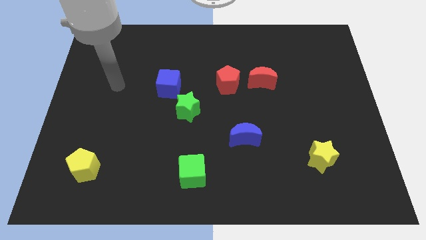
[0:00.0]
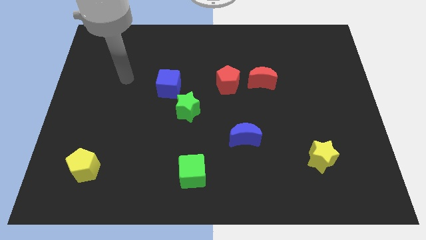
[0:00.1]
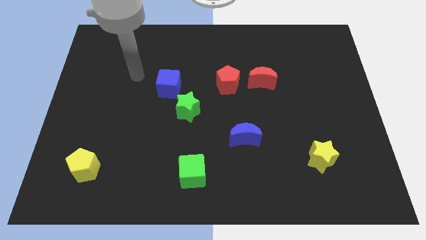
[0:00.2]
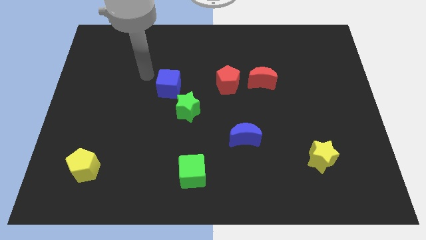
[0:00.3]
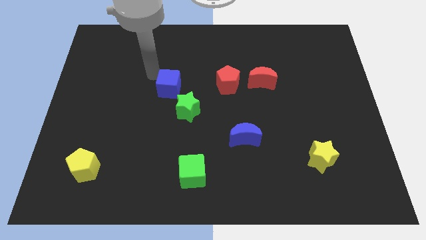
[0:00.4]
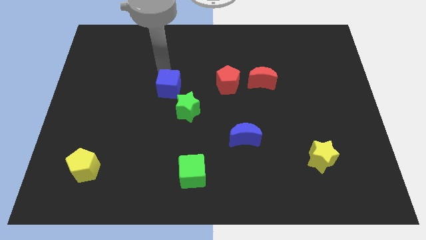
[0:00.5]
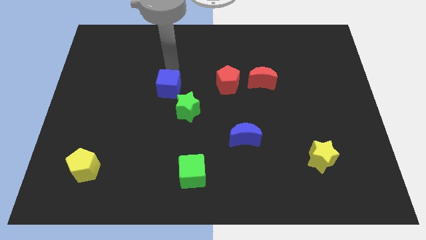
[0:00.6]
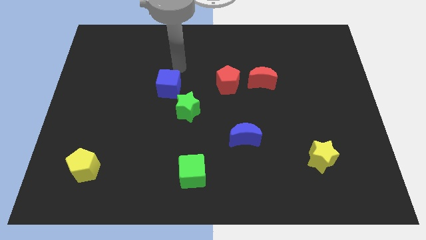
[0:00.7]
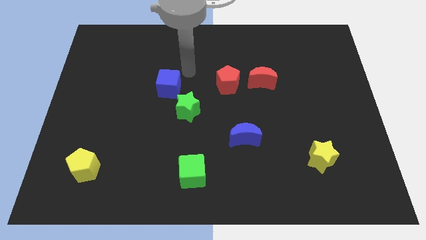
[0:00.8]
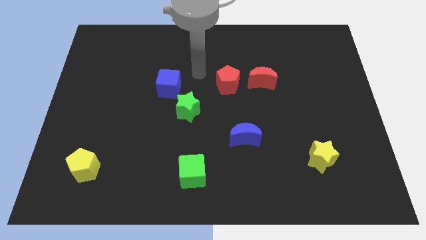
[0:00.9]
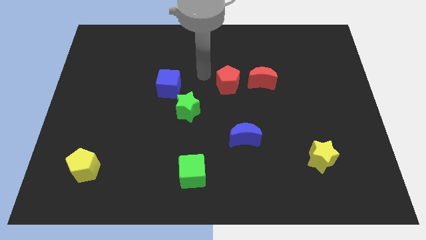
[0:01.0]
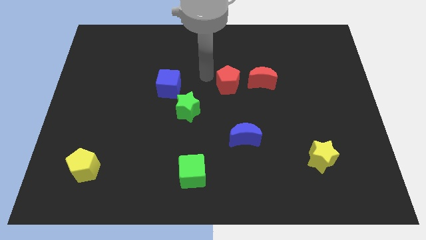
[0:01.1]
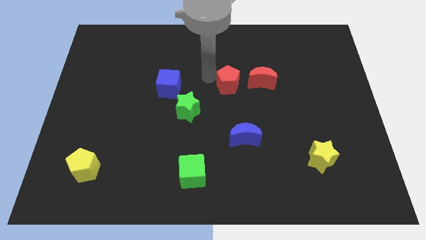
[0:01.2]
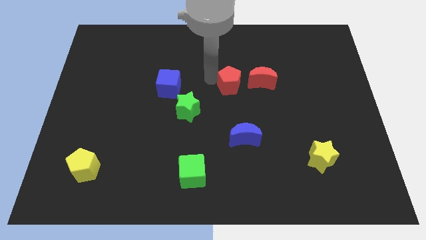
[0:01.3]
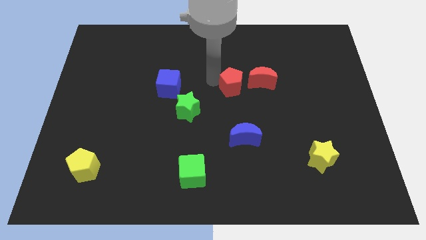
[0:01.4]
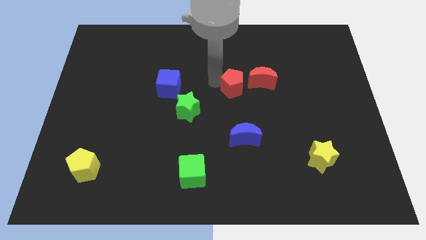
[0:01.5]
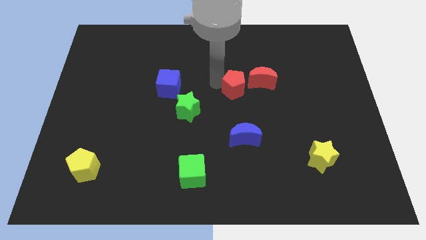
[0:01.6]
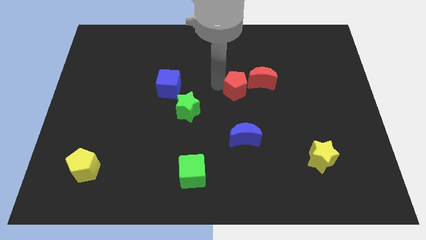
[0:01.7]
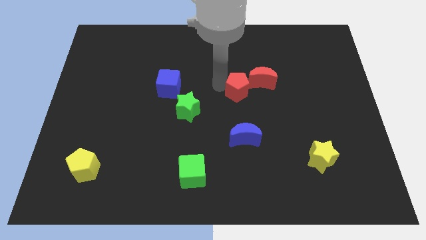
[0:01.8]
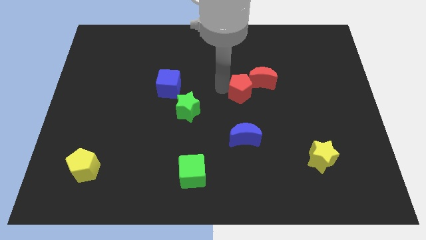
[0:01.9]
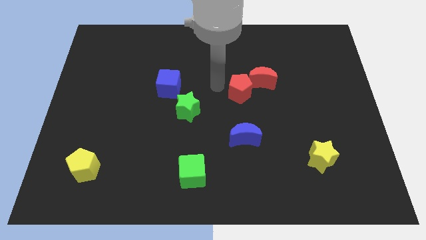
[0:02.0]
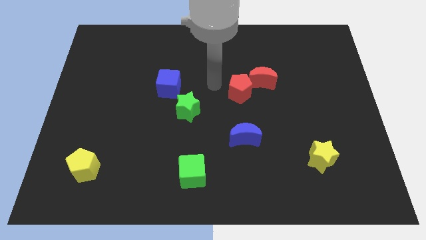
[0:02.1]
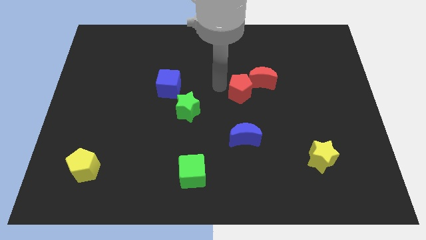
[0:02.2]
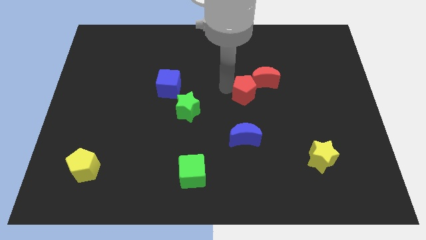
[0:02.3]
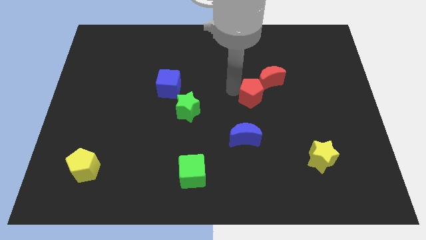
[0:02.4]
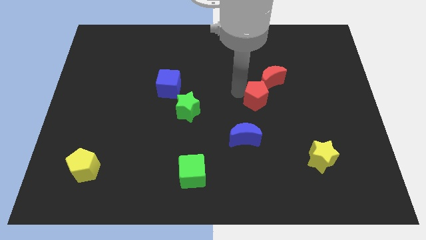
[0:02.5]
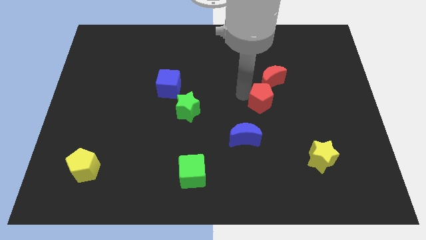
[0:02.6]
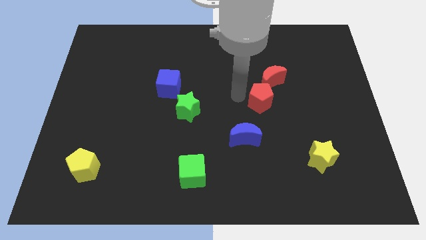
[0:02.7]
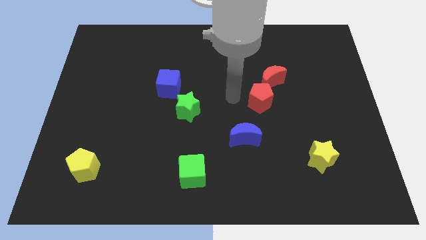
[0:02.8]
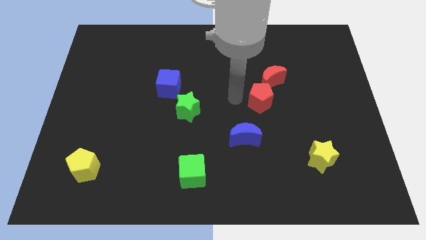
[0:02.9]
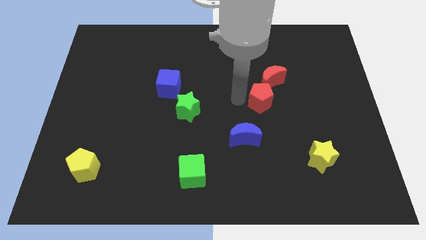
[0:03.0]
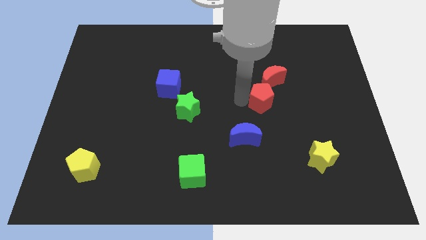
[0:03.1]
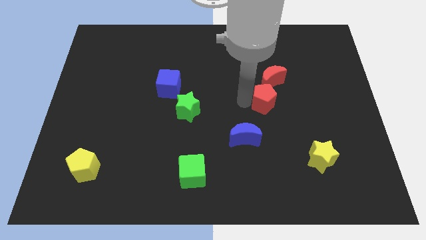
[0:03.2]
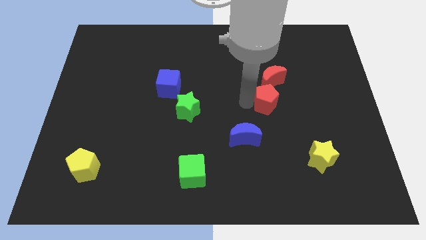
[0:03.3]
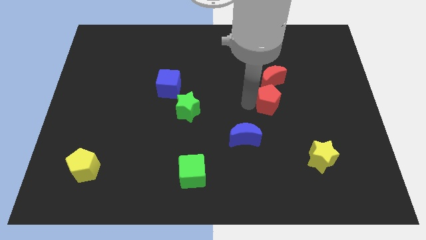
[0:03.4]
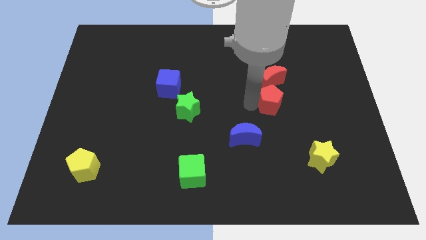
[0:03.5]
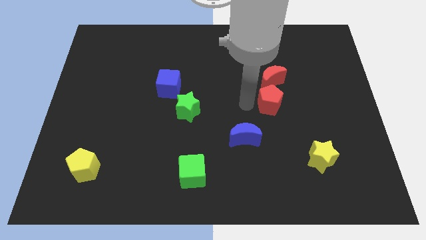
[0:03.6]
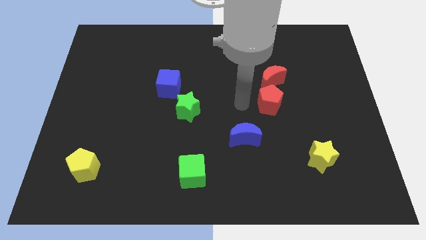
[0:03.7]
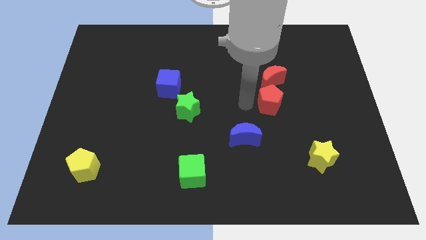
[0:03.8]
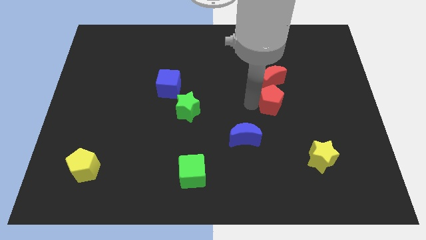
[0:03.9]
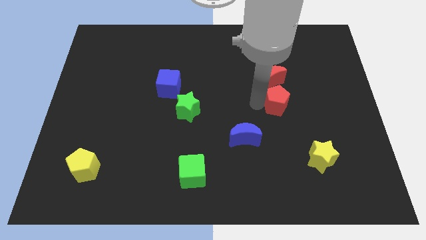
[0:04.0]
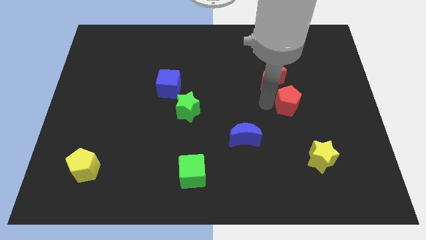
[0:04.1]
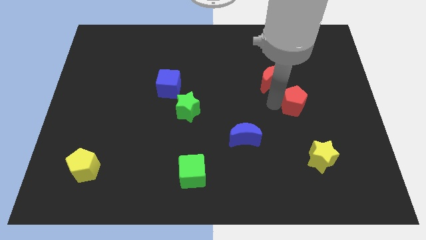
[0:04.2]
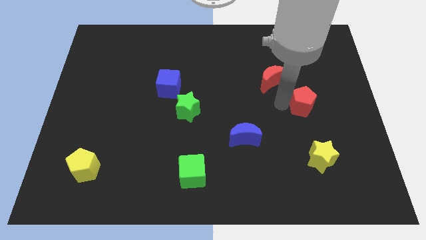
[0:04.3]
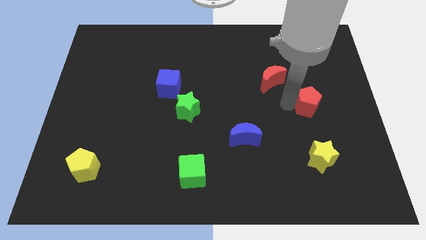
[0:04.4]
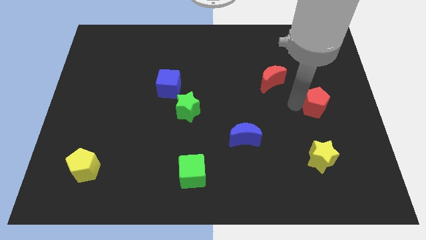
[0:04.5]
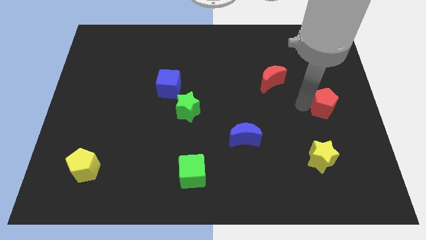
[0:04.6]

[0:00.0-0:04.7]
slide the red pentagon to the right side of the board

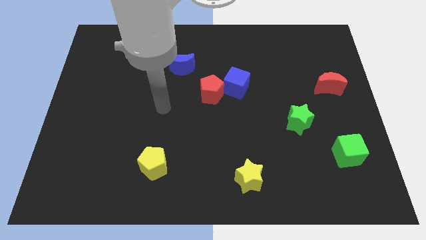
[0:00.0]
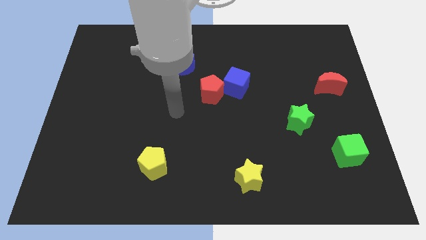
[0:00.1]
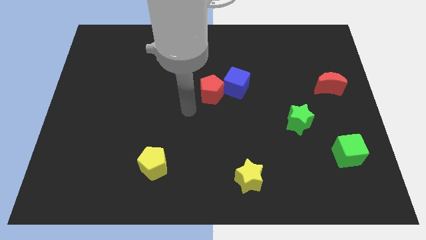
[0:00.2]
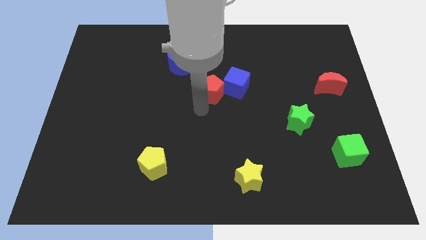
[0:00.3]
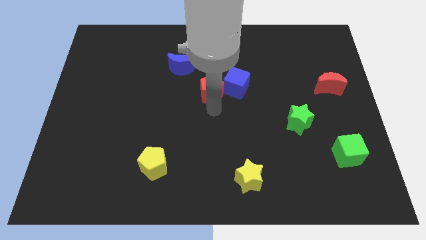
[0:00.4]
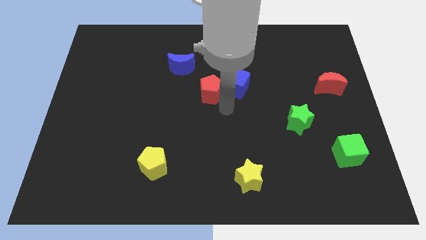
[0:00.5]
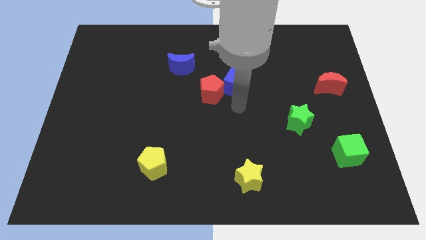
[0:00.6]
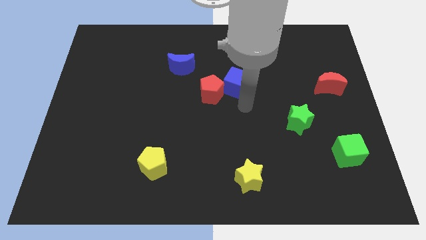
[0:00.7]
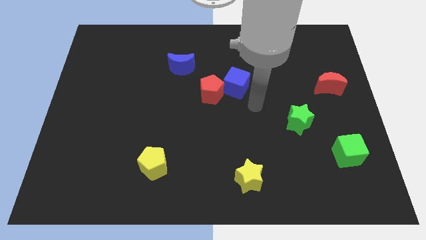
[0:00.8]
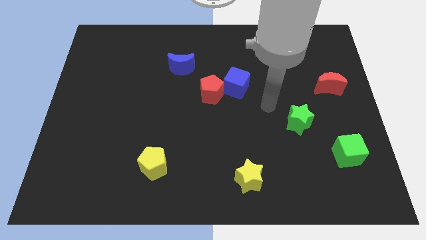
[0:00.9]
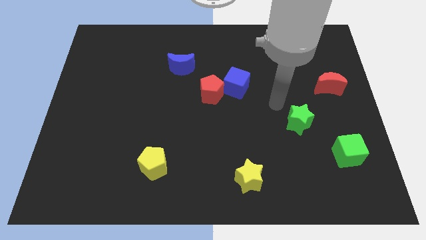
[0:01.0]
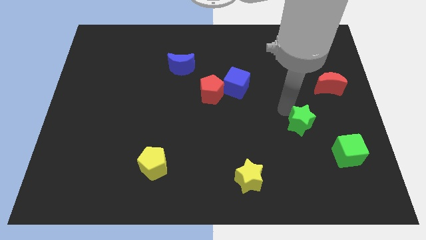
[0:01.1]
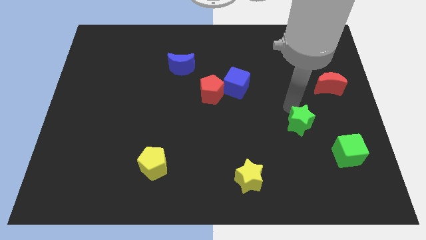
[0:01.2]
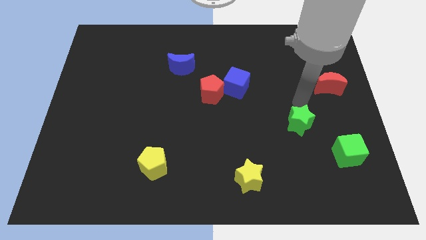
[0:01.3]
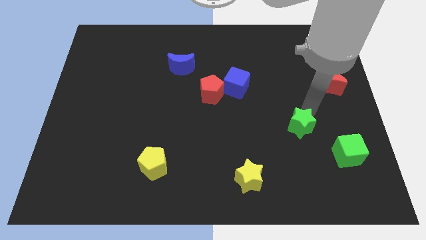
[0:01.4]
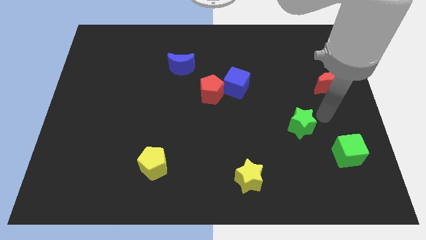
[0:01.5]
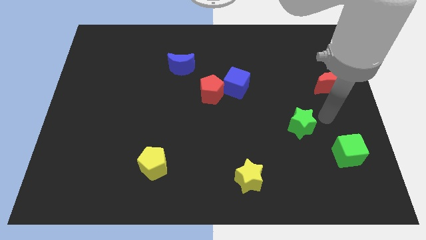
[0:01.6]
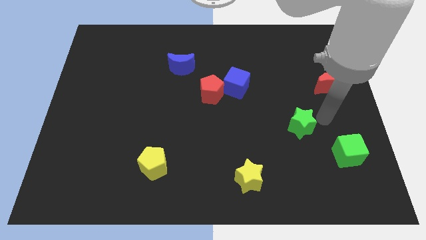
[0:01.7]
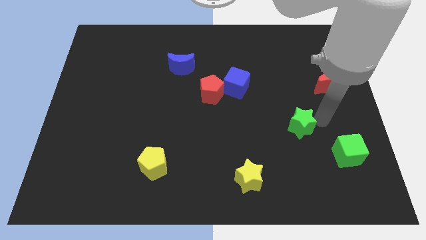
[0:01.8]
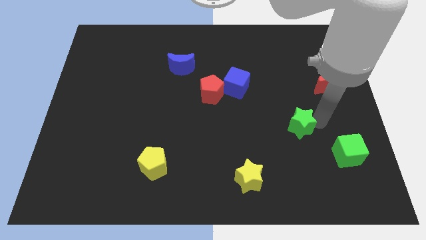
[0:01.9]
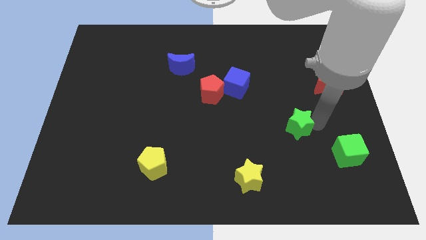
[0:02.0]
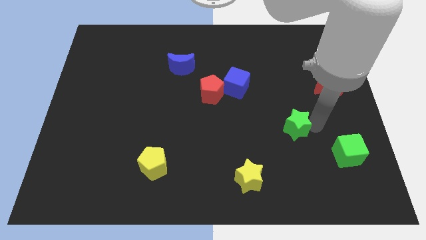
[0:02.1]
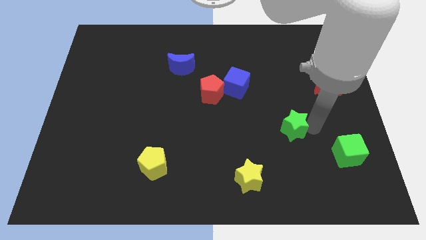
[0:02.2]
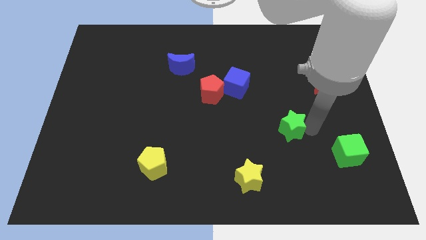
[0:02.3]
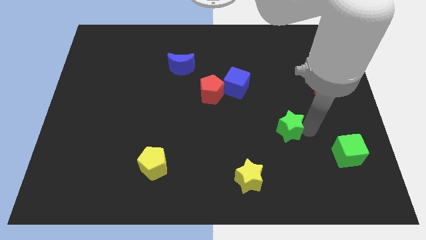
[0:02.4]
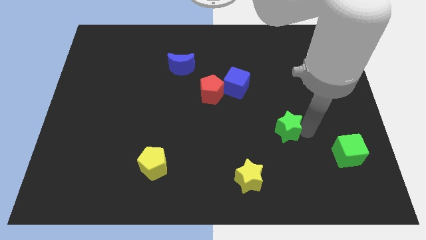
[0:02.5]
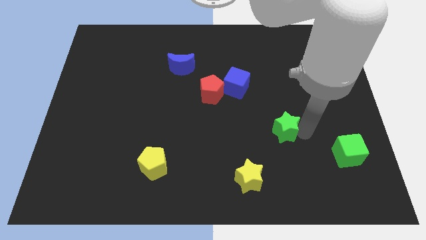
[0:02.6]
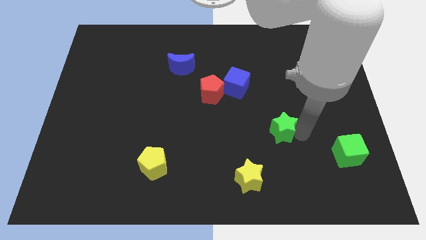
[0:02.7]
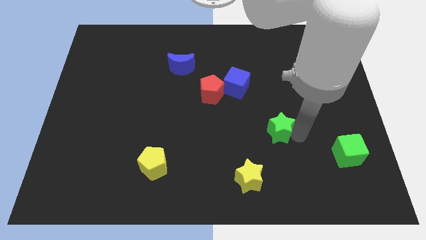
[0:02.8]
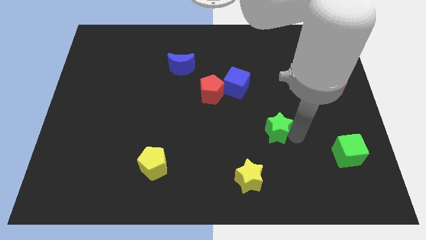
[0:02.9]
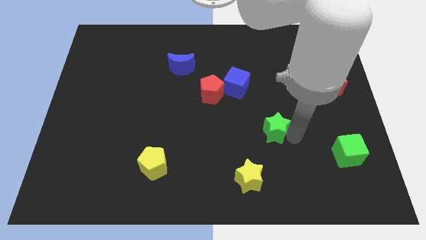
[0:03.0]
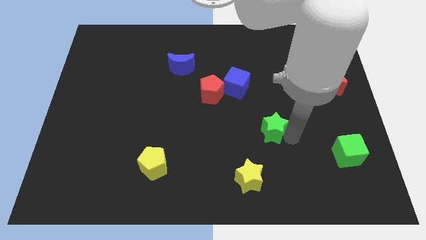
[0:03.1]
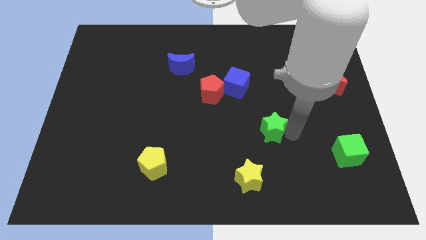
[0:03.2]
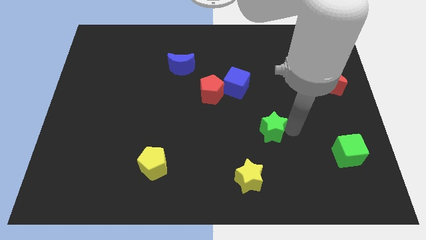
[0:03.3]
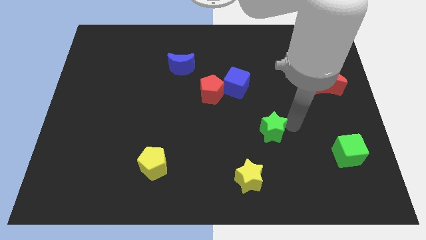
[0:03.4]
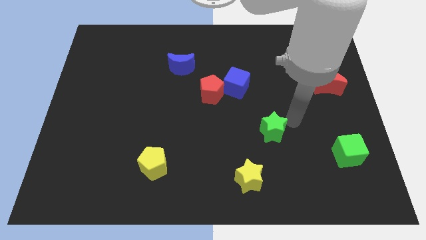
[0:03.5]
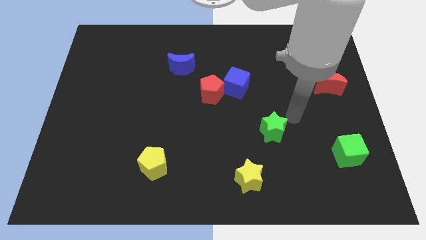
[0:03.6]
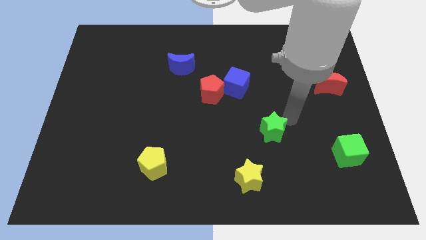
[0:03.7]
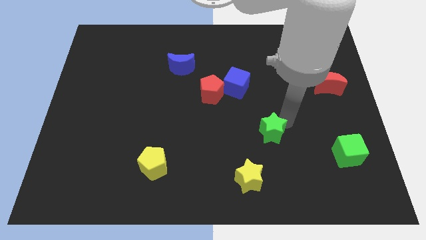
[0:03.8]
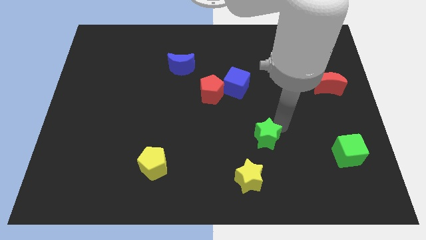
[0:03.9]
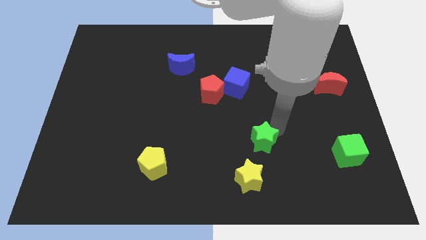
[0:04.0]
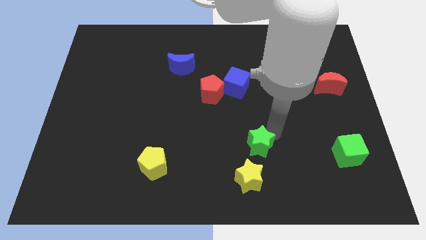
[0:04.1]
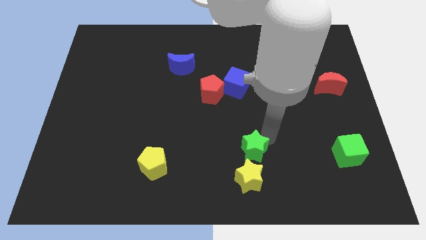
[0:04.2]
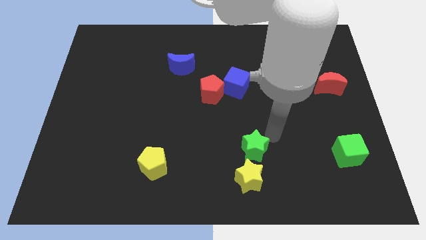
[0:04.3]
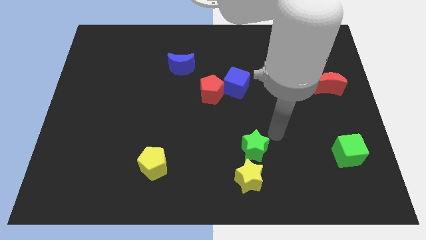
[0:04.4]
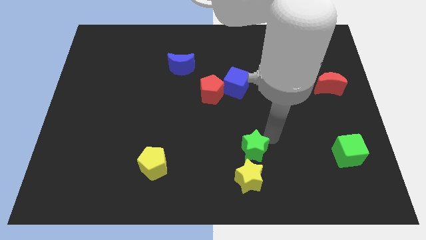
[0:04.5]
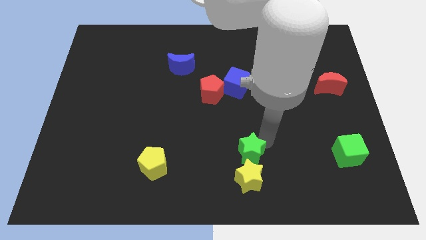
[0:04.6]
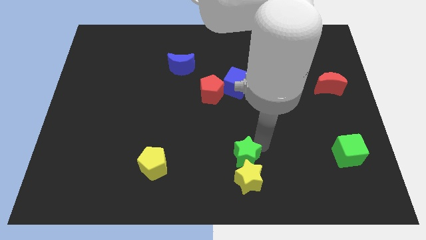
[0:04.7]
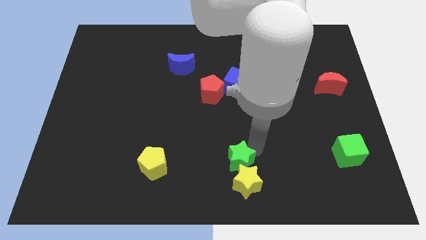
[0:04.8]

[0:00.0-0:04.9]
push the green star to the bottom side
